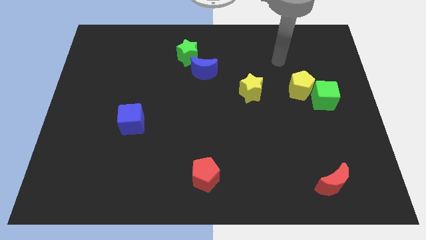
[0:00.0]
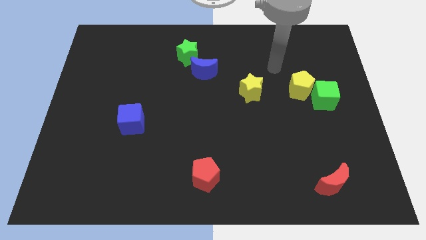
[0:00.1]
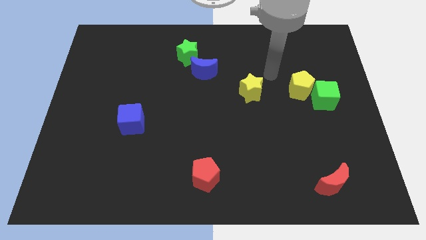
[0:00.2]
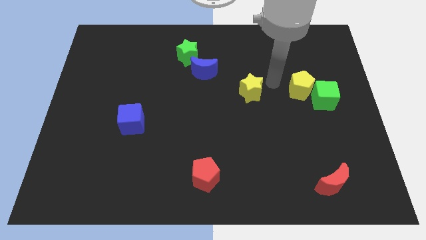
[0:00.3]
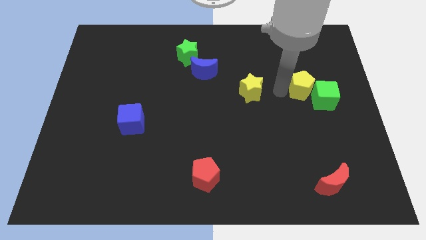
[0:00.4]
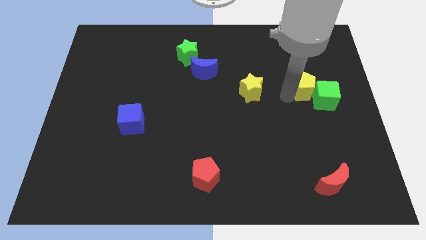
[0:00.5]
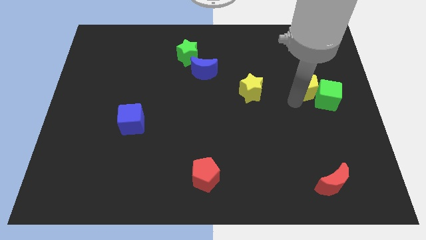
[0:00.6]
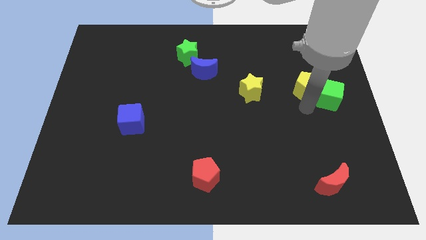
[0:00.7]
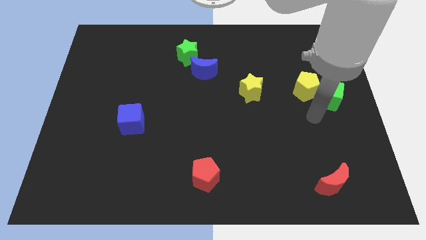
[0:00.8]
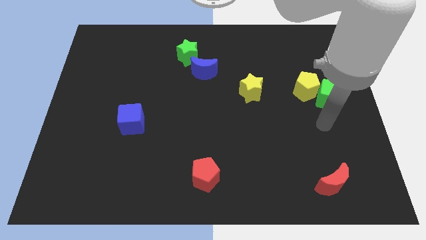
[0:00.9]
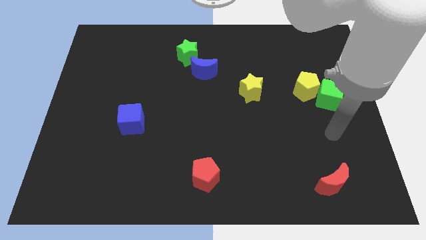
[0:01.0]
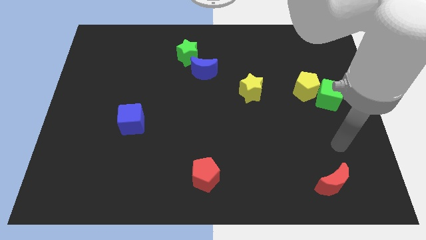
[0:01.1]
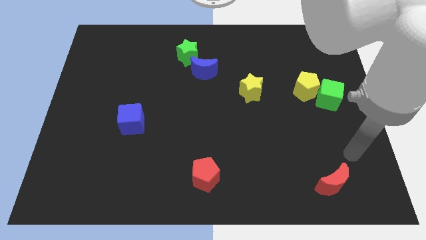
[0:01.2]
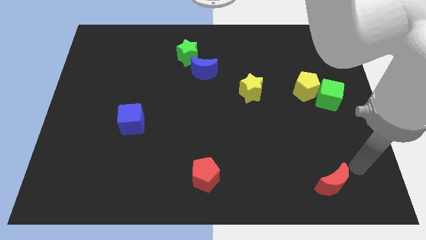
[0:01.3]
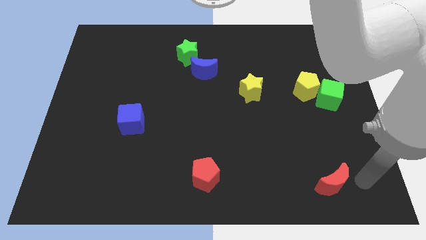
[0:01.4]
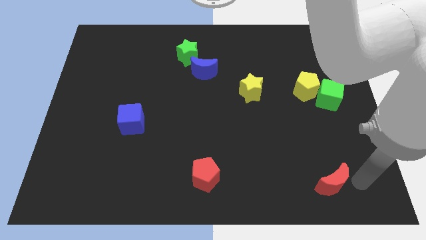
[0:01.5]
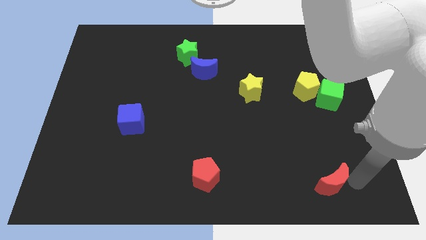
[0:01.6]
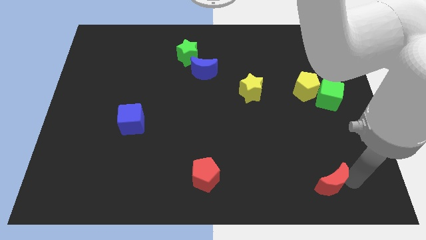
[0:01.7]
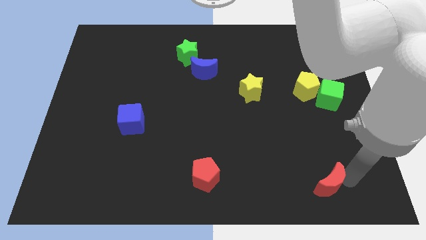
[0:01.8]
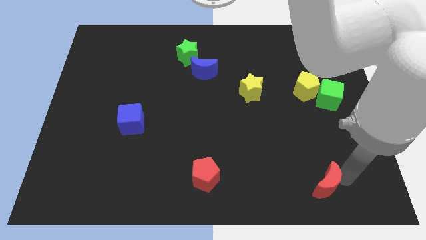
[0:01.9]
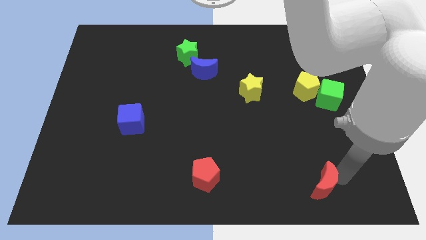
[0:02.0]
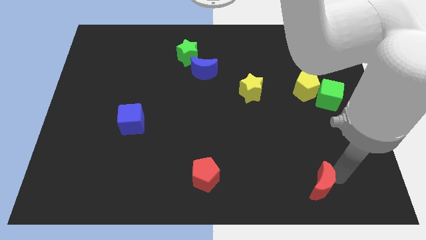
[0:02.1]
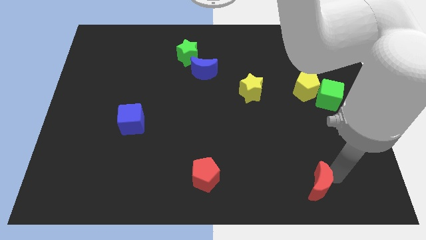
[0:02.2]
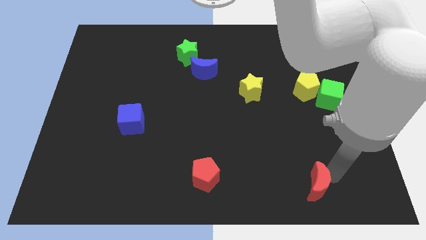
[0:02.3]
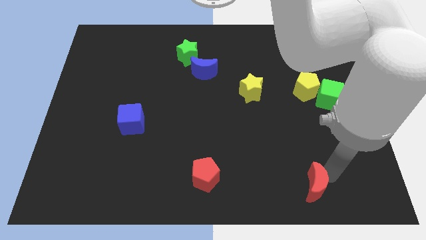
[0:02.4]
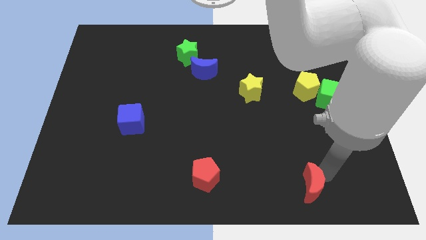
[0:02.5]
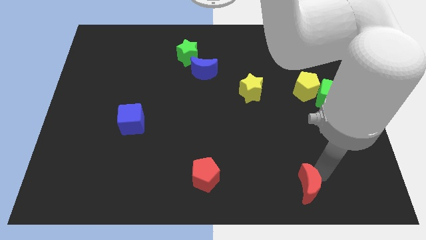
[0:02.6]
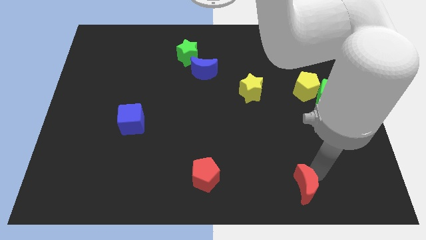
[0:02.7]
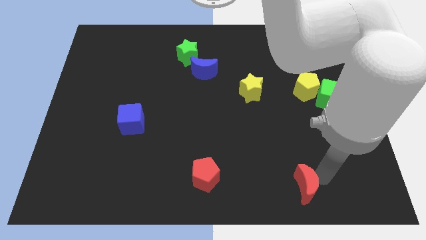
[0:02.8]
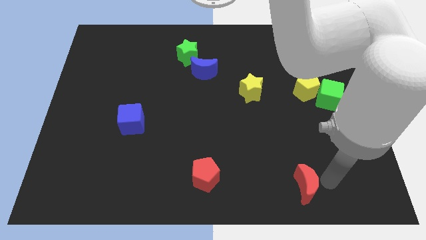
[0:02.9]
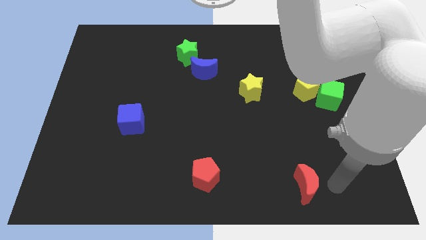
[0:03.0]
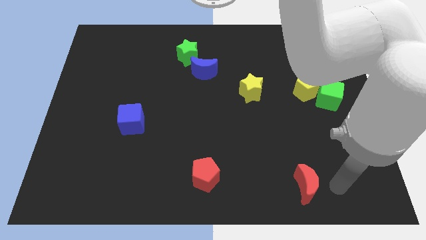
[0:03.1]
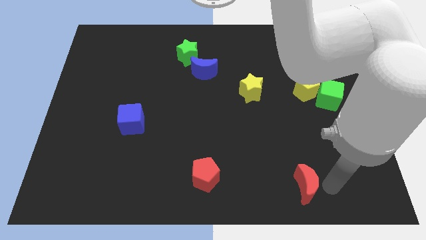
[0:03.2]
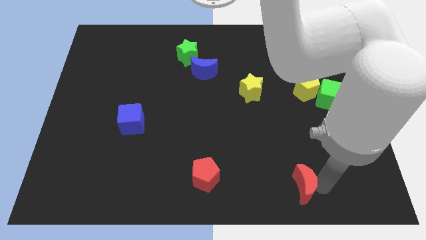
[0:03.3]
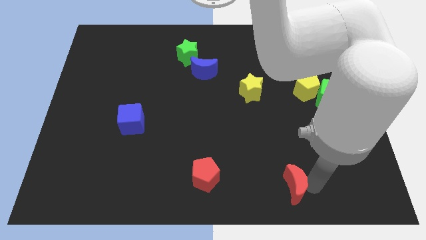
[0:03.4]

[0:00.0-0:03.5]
slide the red moon to the left slightly

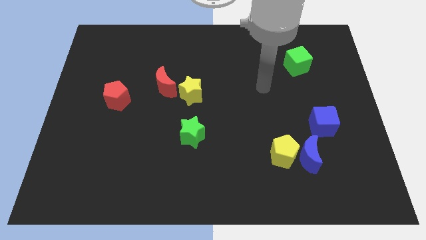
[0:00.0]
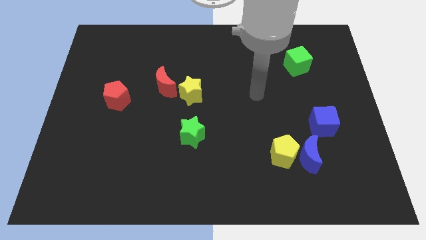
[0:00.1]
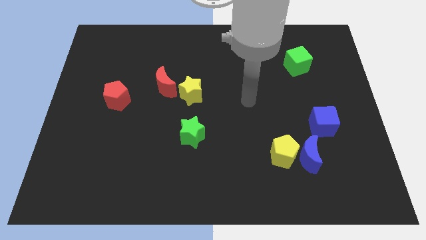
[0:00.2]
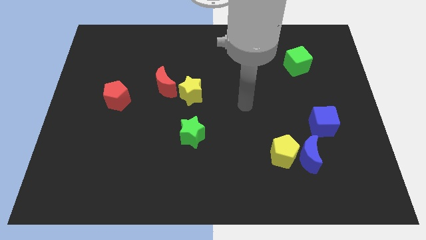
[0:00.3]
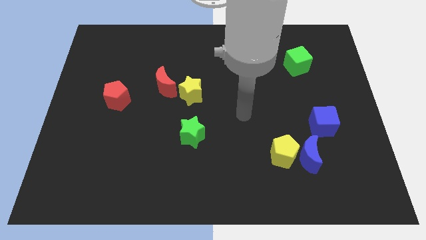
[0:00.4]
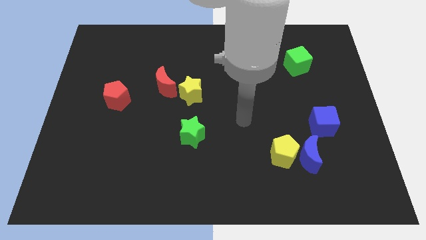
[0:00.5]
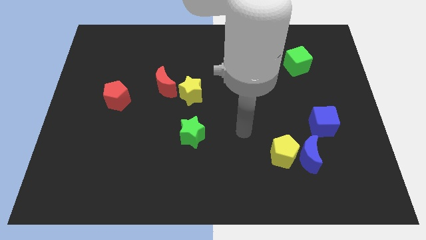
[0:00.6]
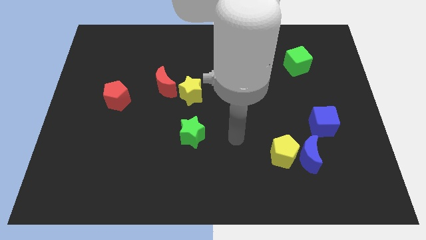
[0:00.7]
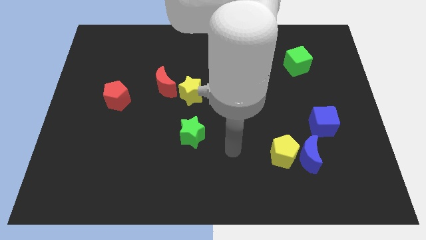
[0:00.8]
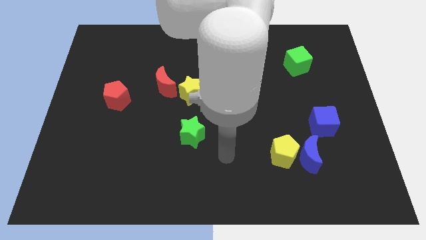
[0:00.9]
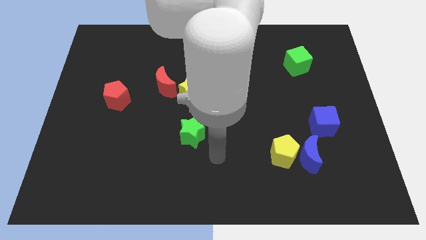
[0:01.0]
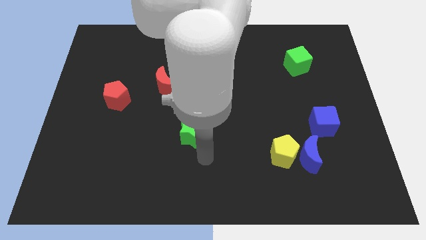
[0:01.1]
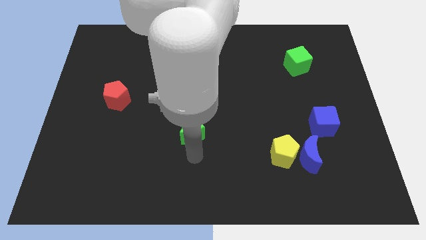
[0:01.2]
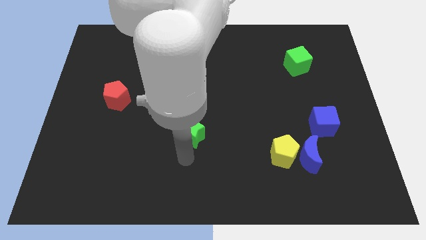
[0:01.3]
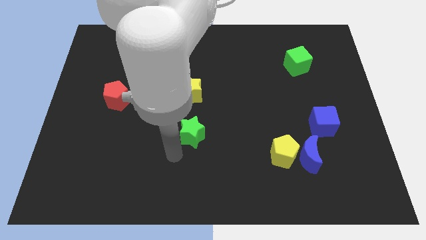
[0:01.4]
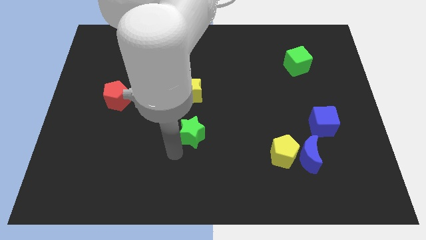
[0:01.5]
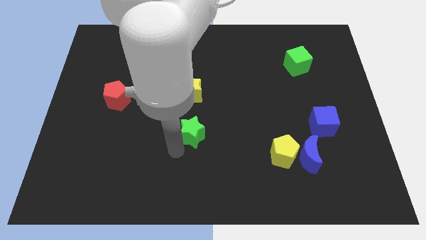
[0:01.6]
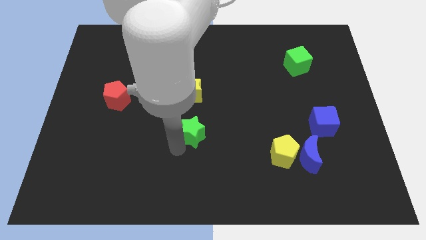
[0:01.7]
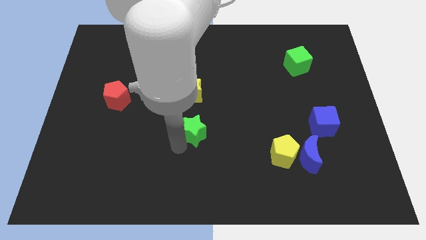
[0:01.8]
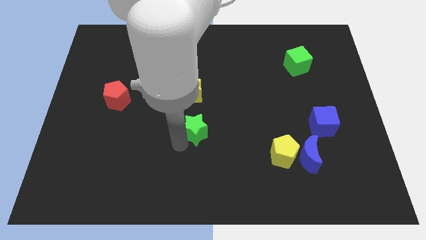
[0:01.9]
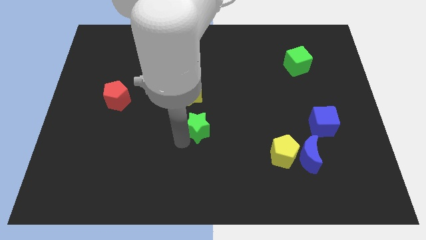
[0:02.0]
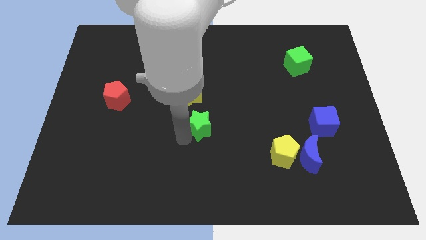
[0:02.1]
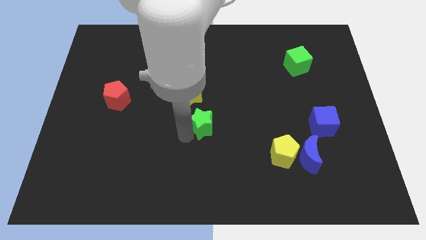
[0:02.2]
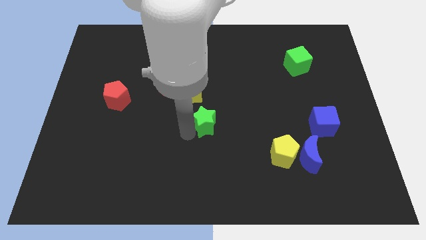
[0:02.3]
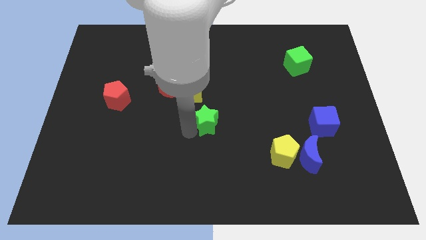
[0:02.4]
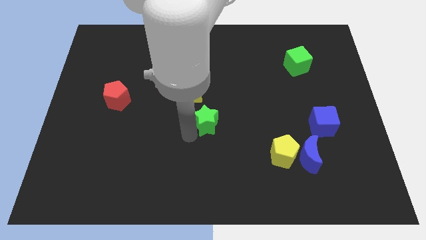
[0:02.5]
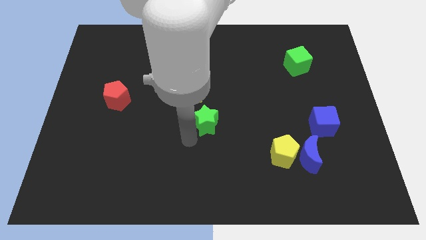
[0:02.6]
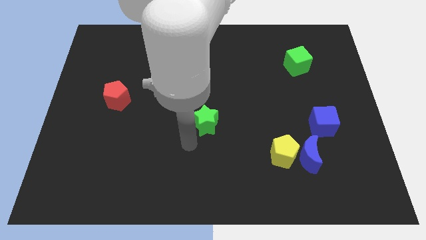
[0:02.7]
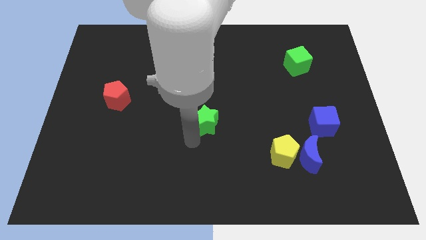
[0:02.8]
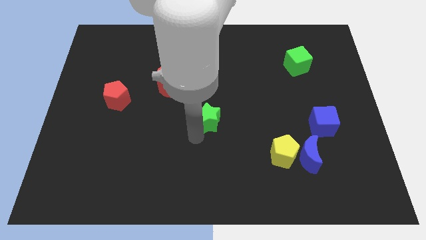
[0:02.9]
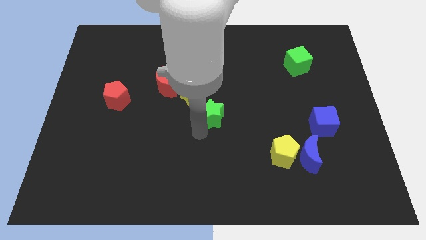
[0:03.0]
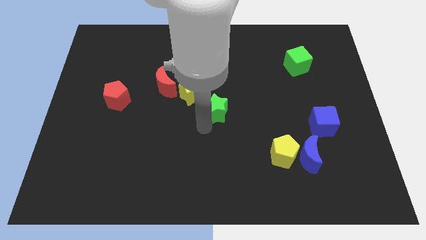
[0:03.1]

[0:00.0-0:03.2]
slightly push the green star up and to the right

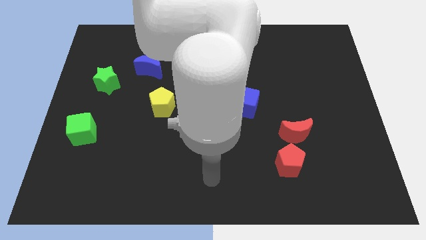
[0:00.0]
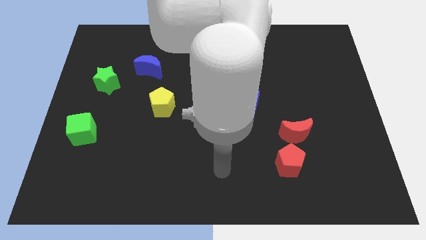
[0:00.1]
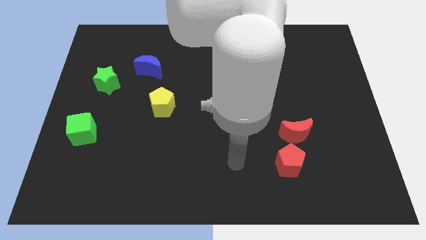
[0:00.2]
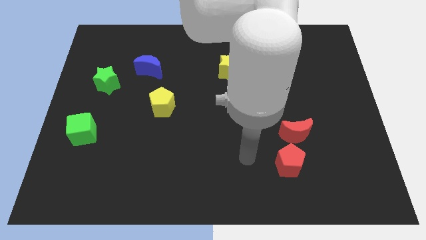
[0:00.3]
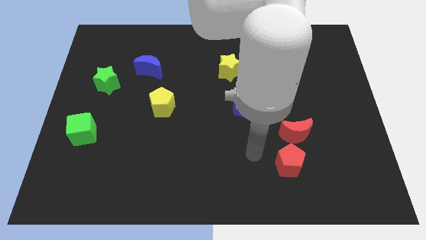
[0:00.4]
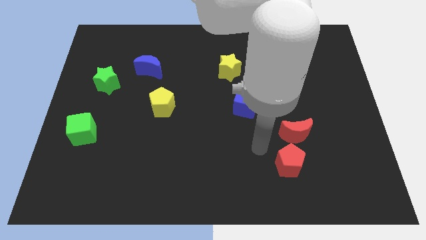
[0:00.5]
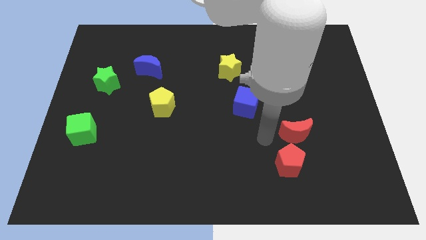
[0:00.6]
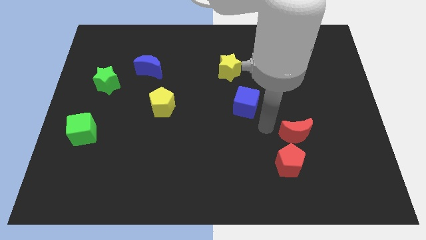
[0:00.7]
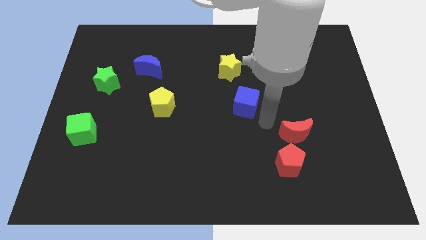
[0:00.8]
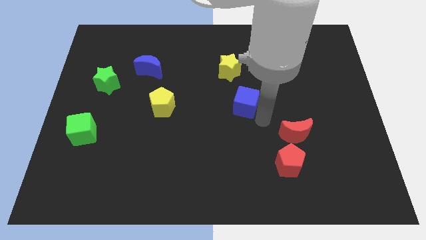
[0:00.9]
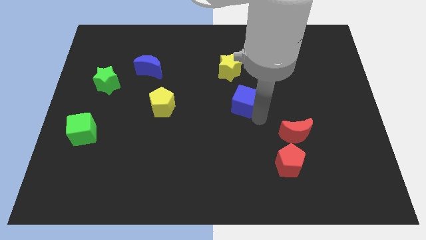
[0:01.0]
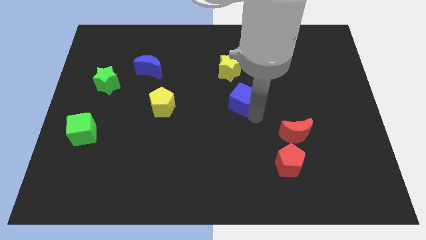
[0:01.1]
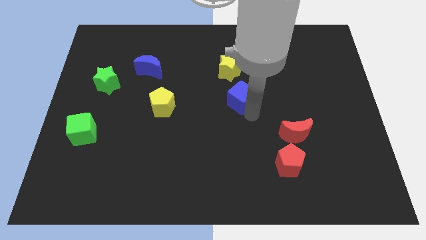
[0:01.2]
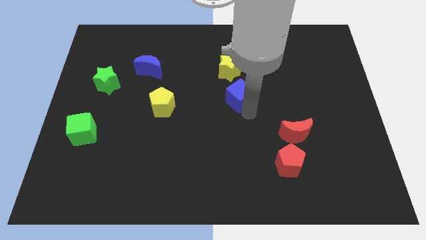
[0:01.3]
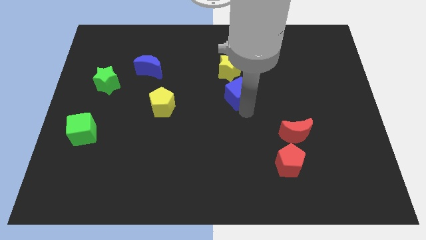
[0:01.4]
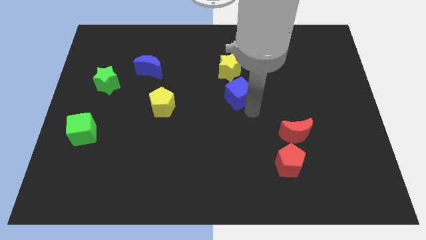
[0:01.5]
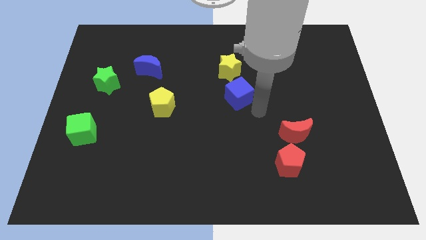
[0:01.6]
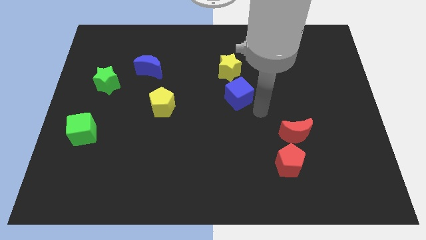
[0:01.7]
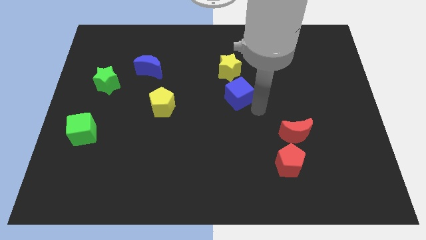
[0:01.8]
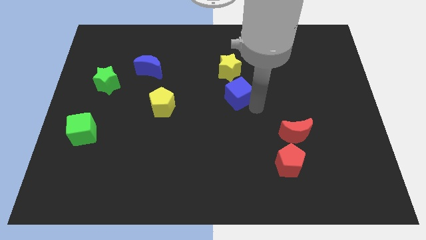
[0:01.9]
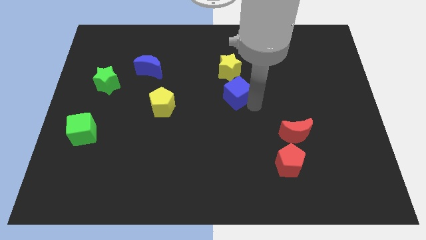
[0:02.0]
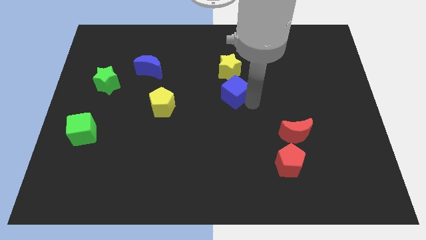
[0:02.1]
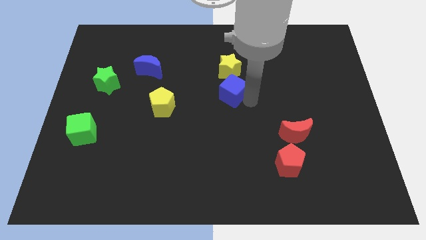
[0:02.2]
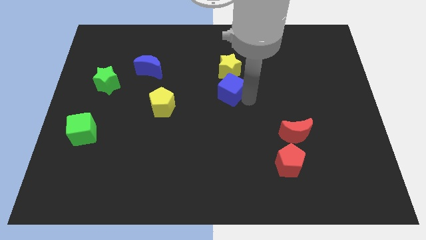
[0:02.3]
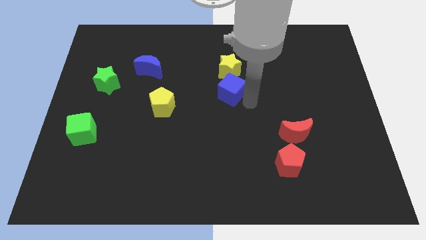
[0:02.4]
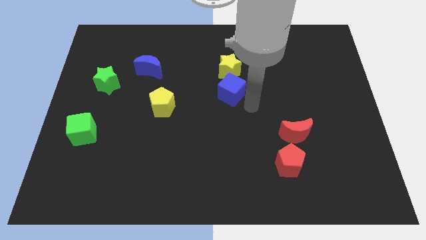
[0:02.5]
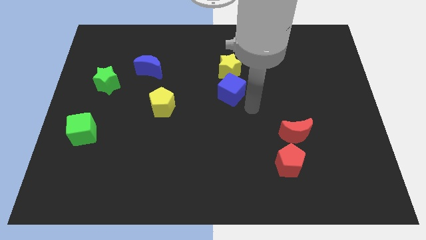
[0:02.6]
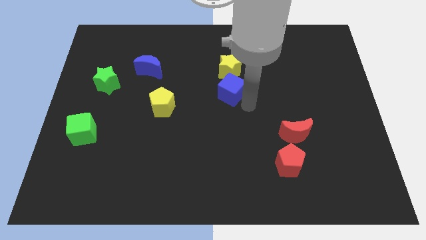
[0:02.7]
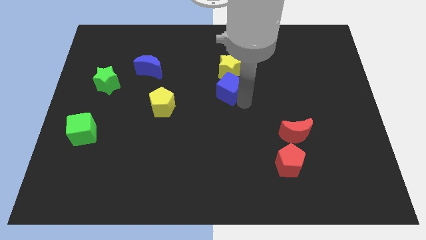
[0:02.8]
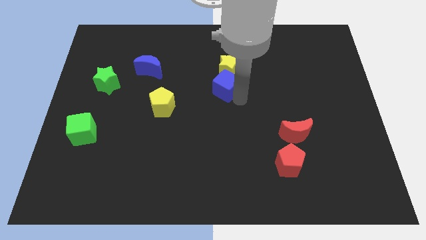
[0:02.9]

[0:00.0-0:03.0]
slide the blue cube upwards and then to the left a little
